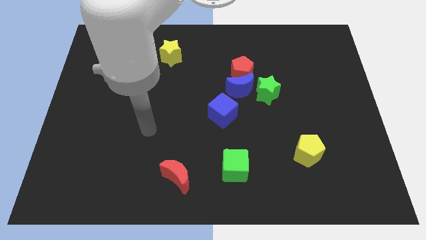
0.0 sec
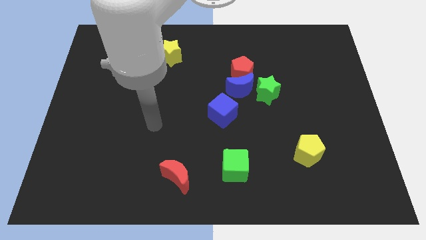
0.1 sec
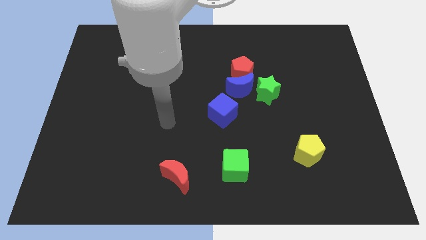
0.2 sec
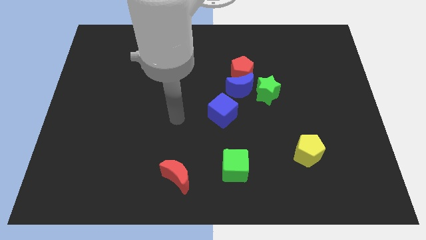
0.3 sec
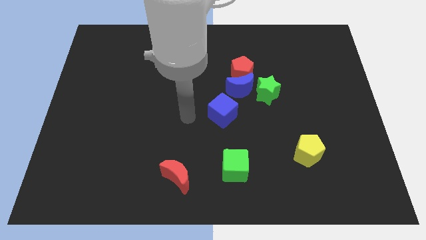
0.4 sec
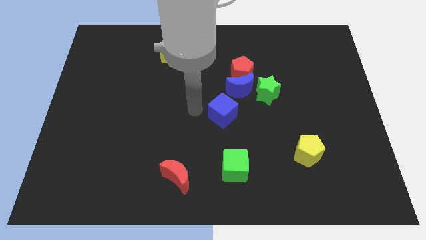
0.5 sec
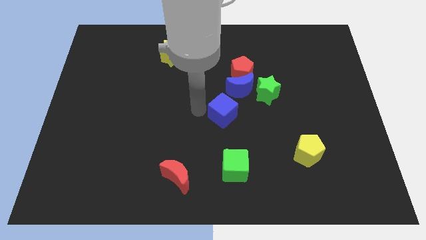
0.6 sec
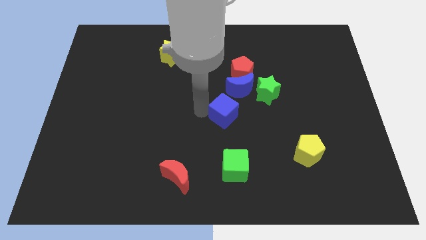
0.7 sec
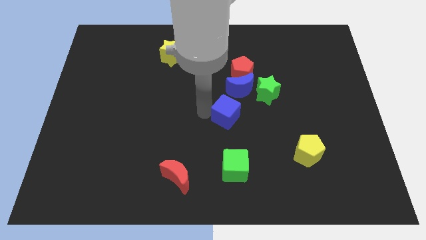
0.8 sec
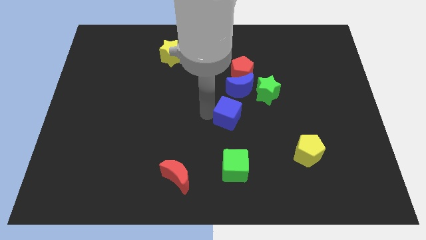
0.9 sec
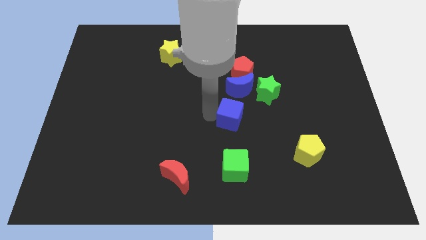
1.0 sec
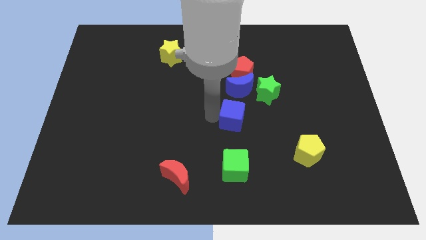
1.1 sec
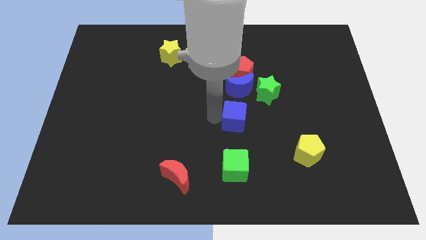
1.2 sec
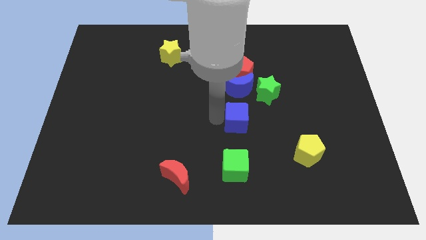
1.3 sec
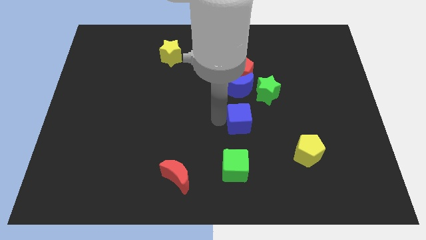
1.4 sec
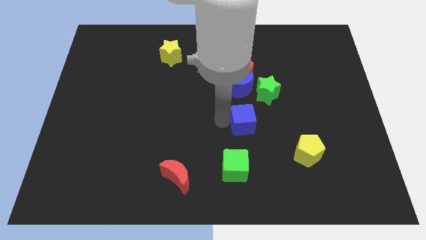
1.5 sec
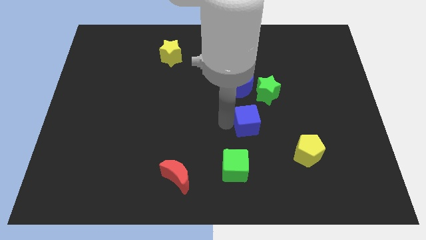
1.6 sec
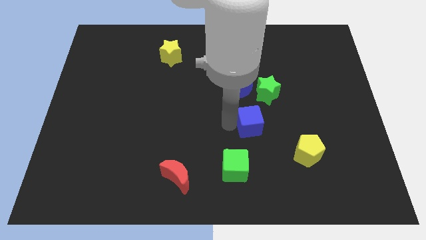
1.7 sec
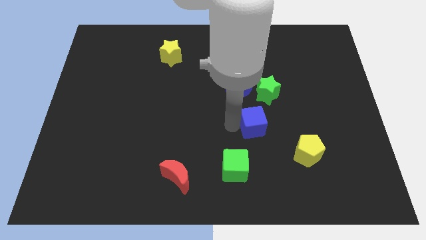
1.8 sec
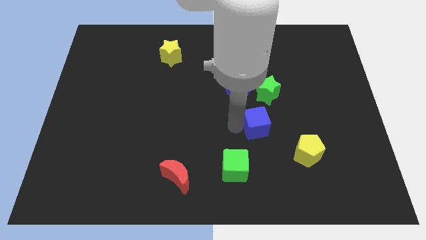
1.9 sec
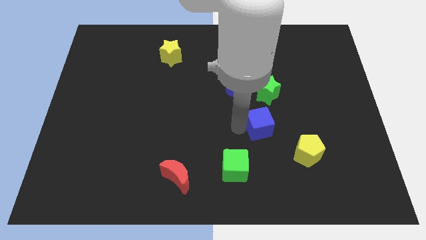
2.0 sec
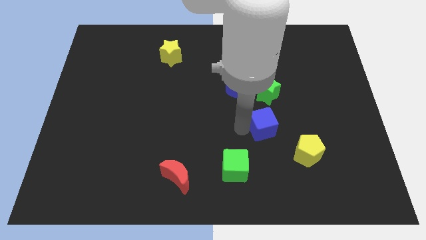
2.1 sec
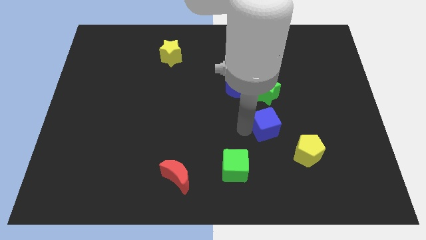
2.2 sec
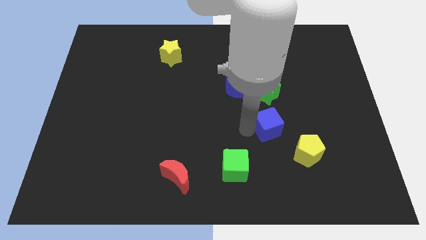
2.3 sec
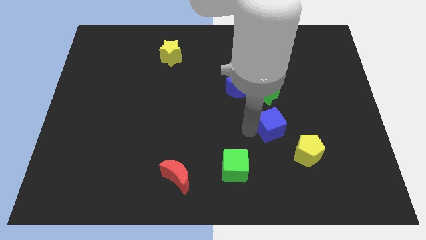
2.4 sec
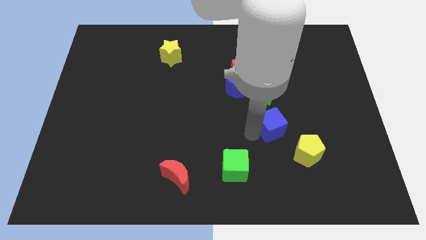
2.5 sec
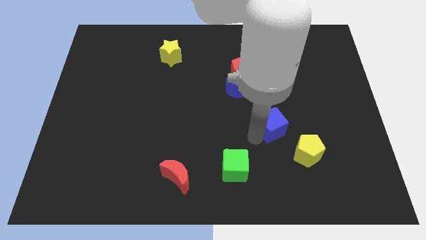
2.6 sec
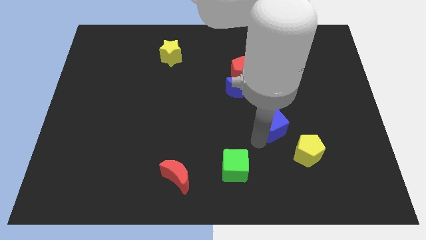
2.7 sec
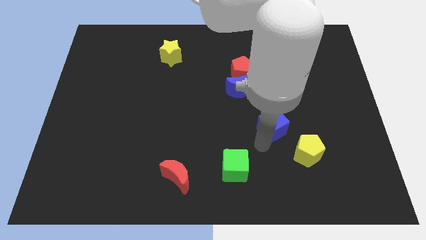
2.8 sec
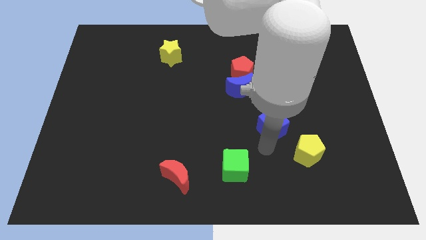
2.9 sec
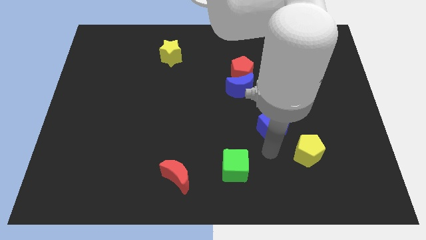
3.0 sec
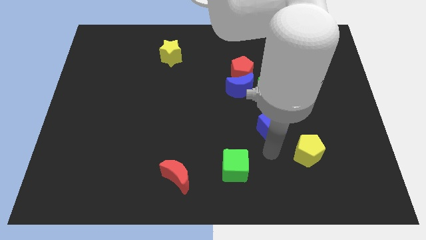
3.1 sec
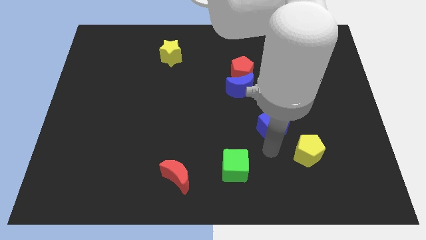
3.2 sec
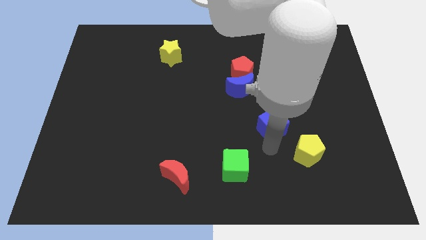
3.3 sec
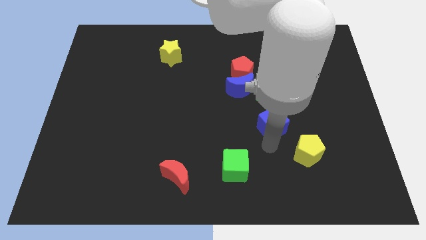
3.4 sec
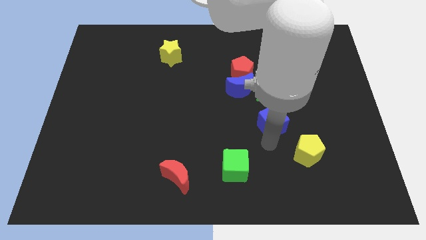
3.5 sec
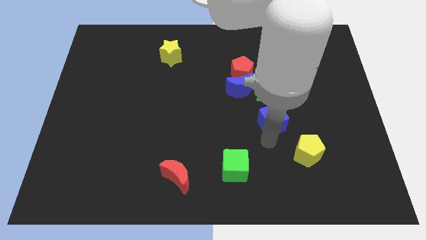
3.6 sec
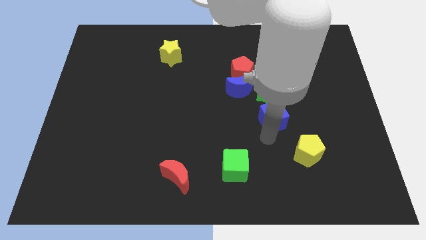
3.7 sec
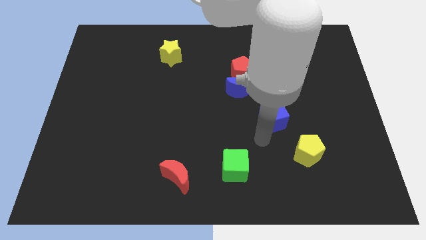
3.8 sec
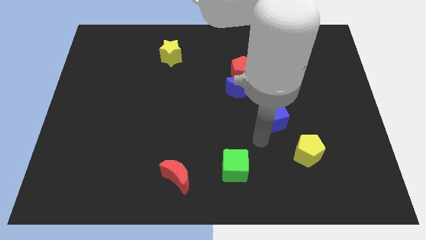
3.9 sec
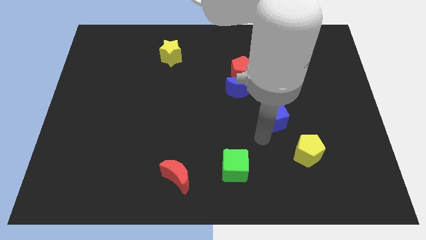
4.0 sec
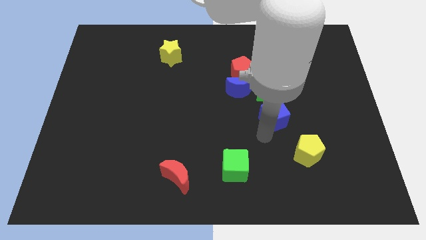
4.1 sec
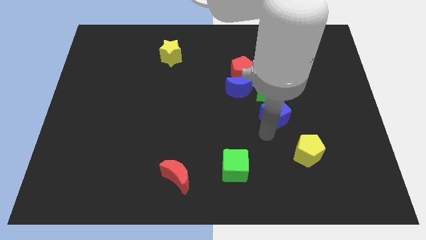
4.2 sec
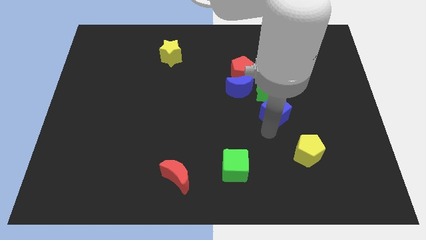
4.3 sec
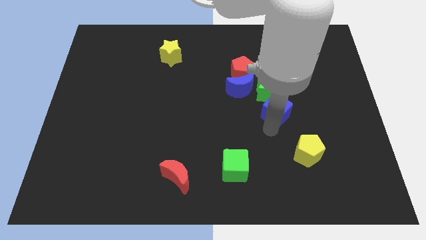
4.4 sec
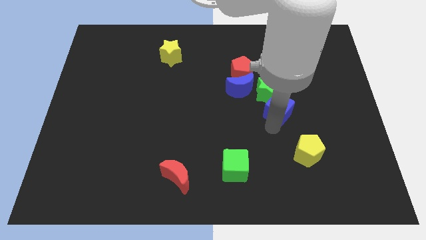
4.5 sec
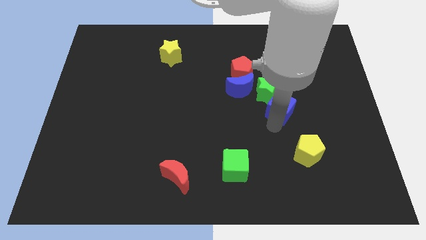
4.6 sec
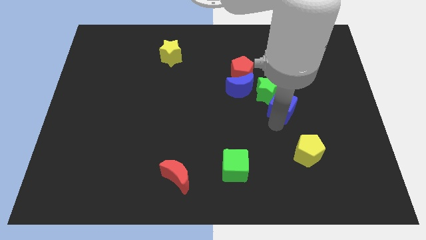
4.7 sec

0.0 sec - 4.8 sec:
slightly push the blue cube upwards and right

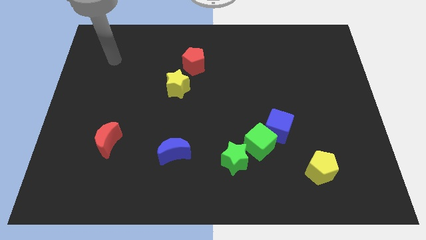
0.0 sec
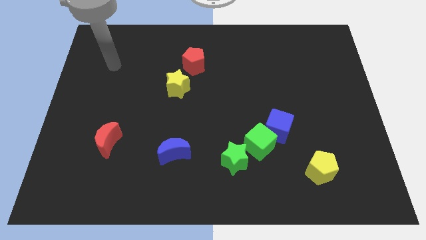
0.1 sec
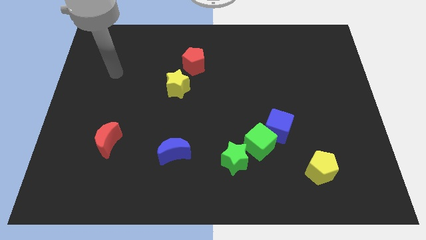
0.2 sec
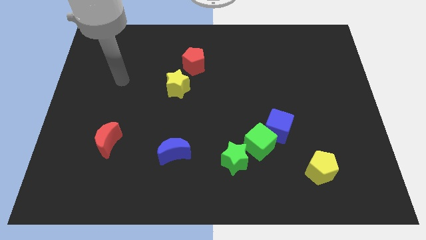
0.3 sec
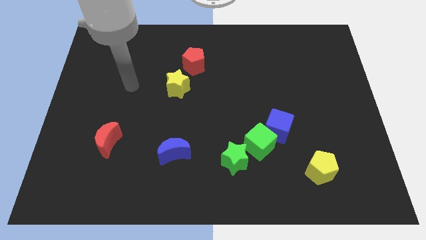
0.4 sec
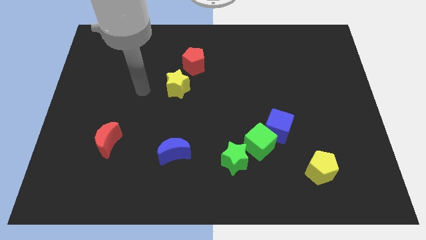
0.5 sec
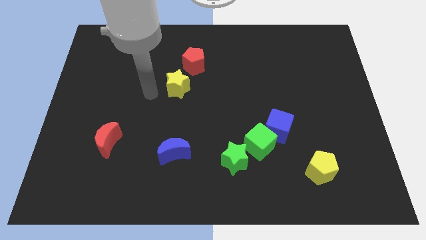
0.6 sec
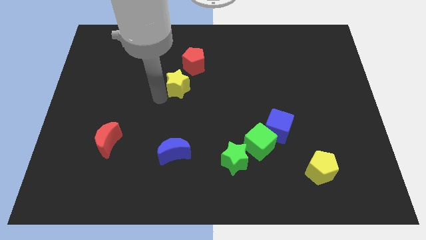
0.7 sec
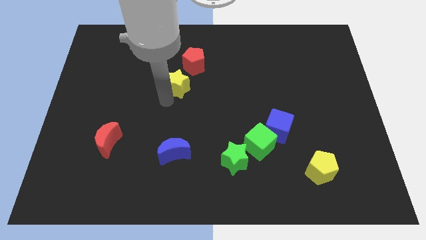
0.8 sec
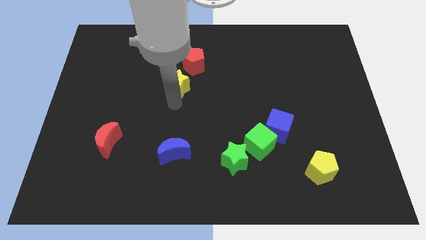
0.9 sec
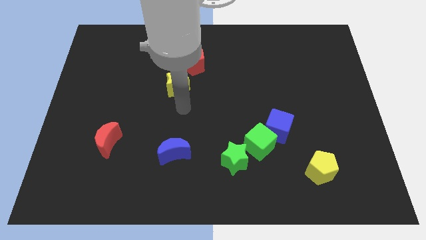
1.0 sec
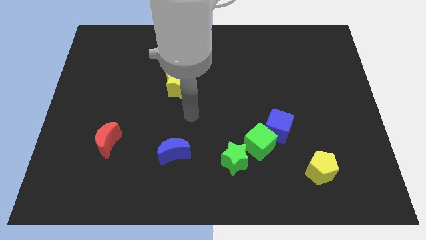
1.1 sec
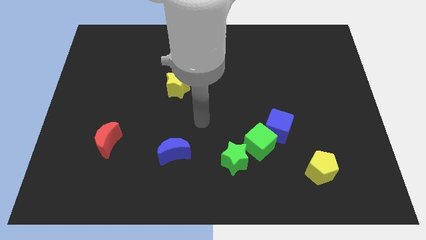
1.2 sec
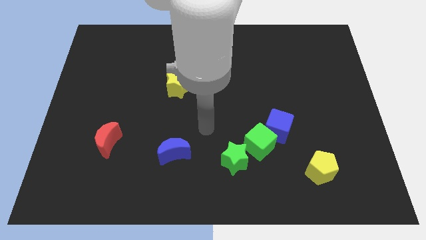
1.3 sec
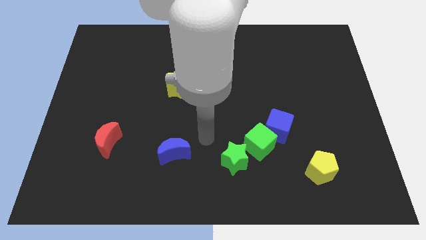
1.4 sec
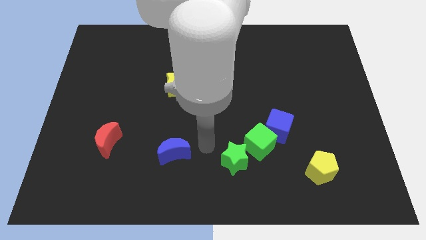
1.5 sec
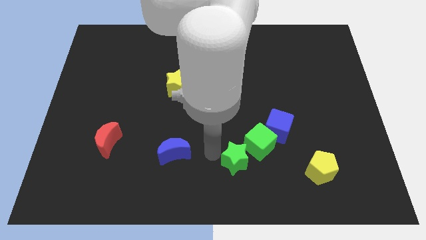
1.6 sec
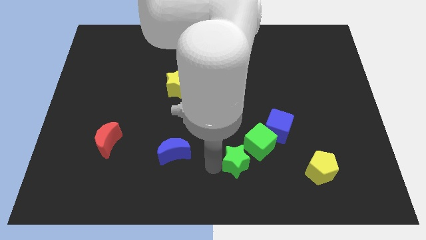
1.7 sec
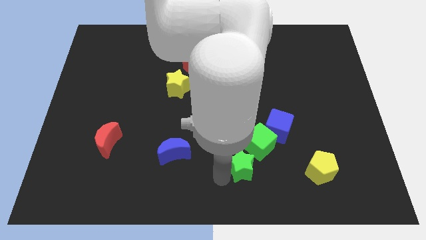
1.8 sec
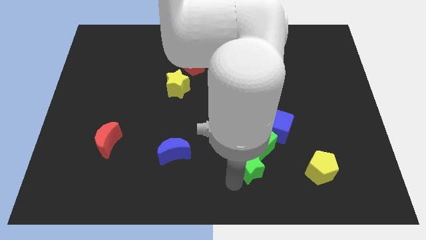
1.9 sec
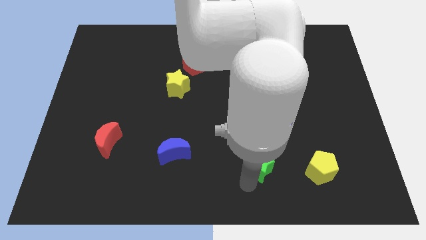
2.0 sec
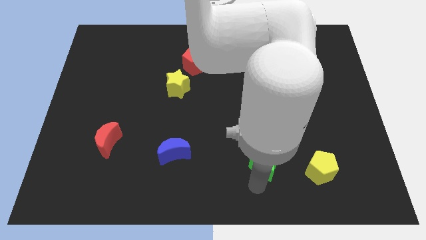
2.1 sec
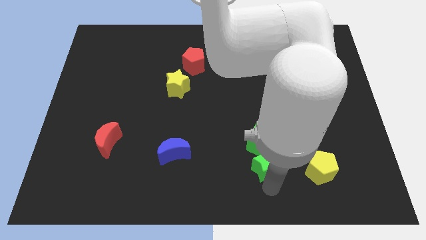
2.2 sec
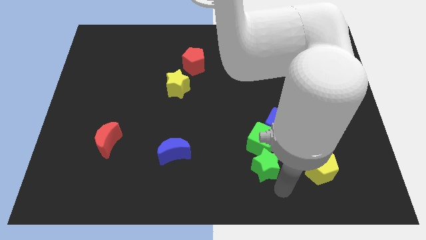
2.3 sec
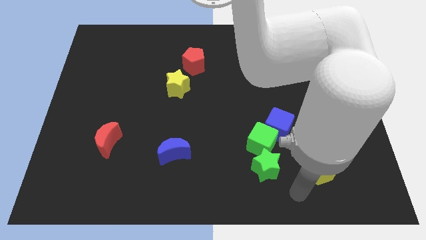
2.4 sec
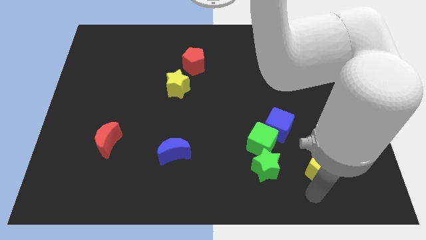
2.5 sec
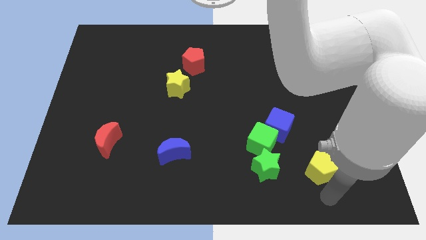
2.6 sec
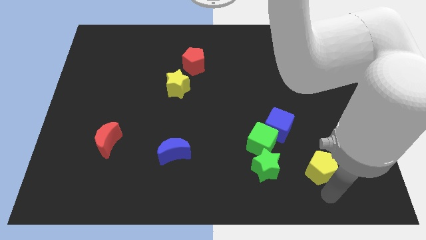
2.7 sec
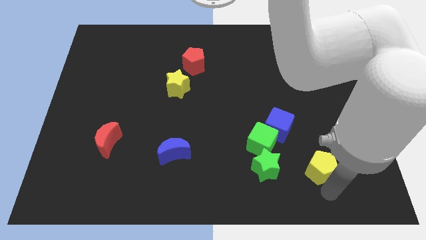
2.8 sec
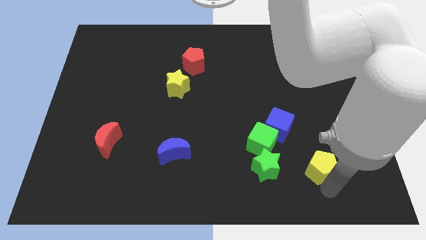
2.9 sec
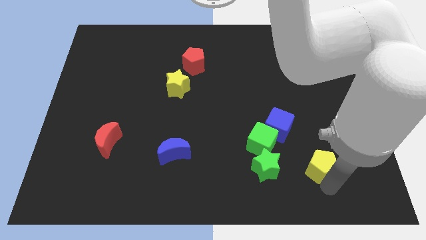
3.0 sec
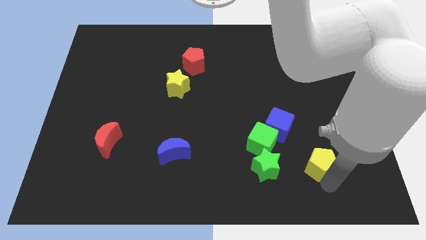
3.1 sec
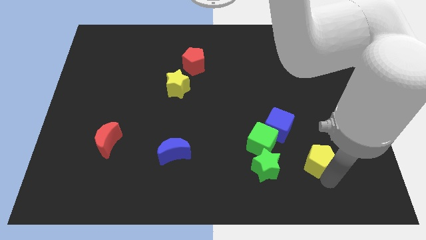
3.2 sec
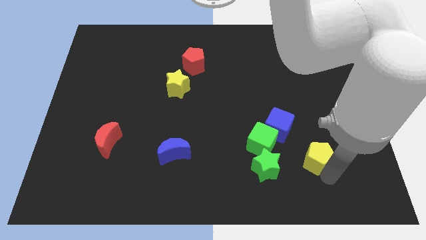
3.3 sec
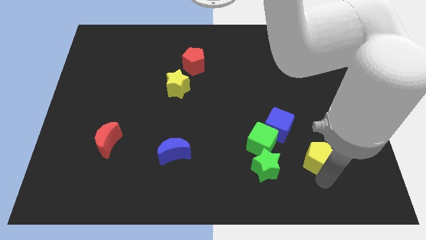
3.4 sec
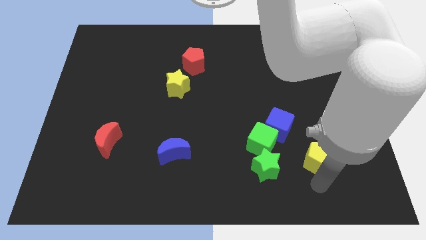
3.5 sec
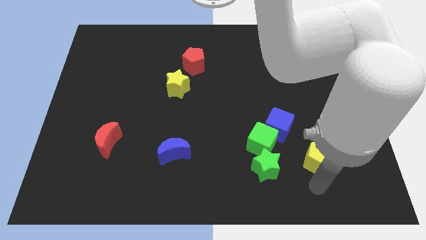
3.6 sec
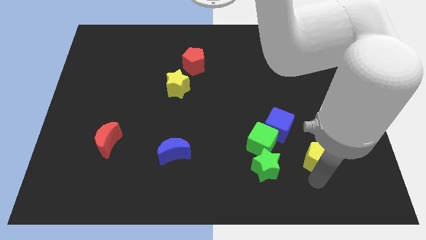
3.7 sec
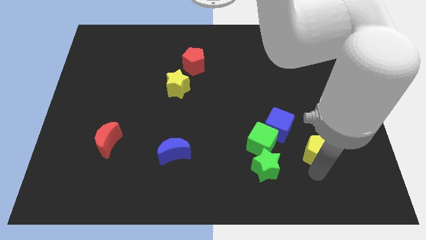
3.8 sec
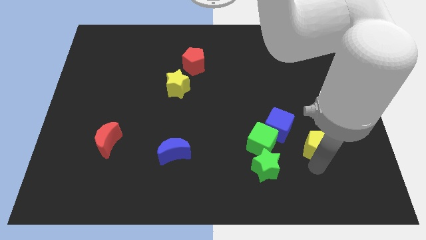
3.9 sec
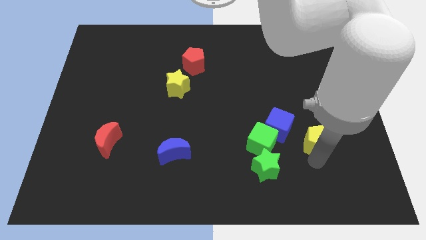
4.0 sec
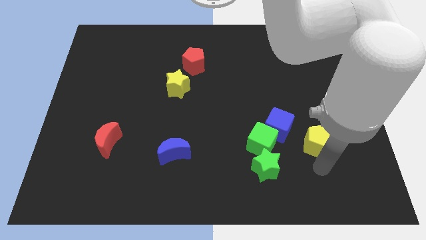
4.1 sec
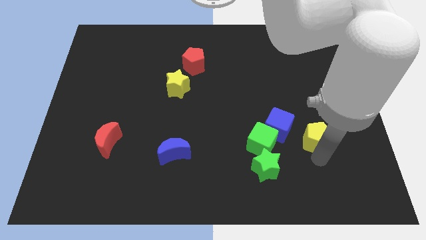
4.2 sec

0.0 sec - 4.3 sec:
slightly move the yellow pentagon up
